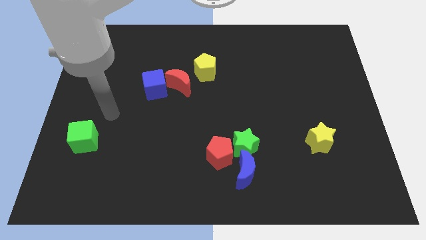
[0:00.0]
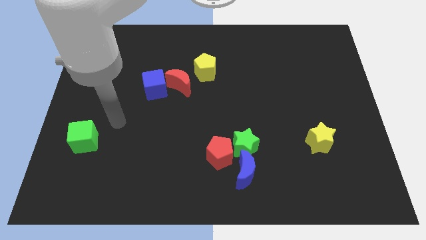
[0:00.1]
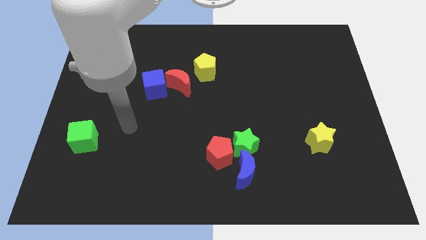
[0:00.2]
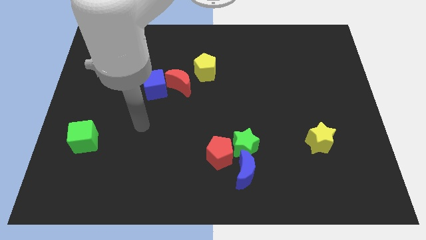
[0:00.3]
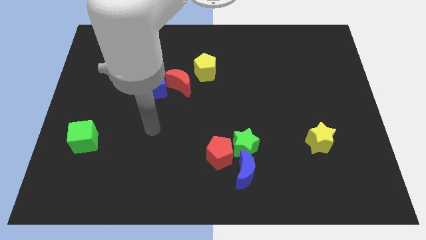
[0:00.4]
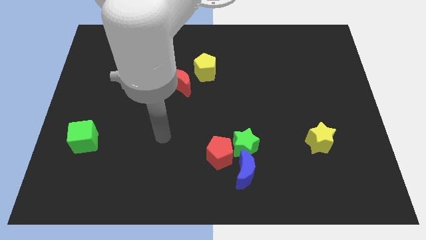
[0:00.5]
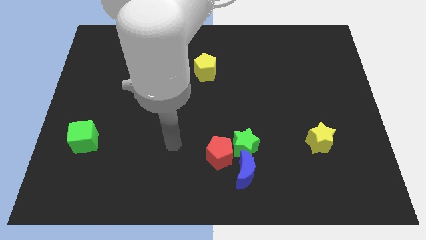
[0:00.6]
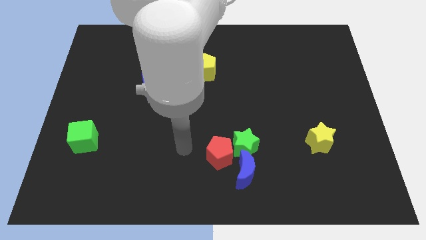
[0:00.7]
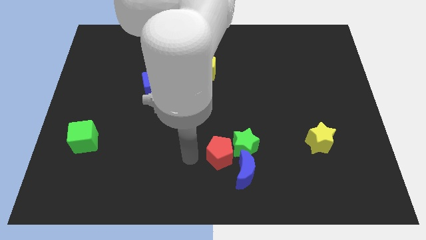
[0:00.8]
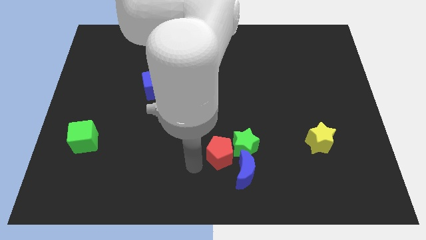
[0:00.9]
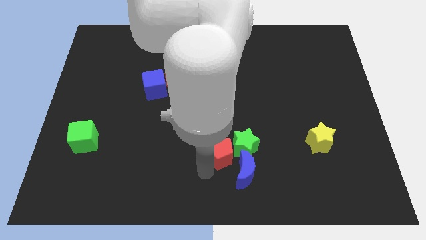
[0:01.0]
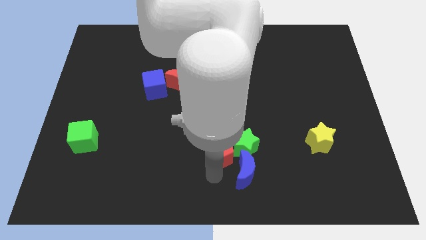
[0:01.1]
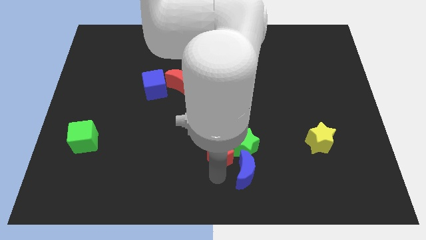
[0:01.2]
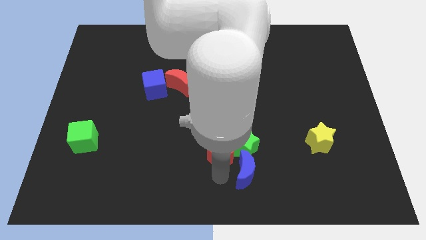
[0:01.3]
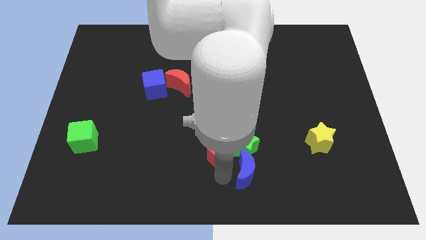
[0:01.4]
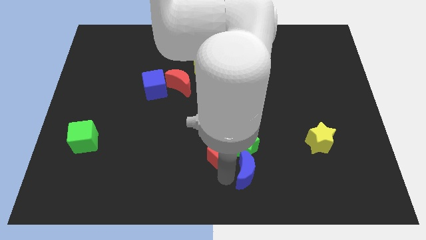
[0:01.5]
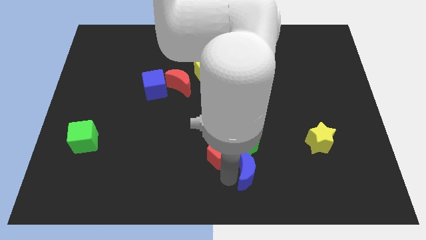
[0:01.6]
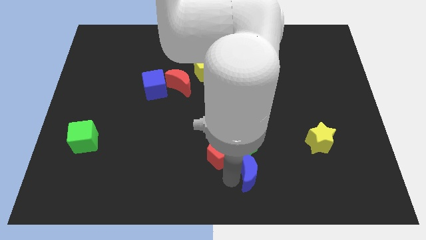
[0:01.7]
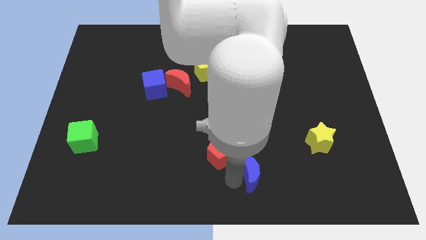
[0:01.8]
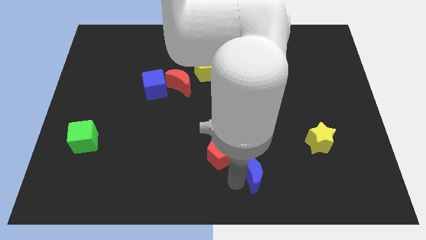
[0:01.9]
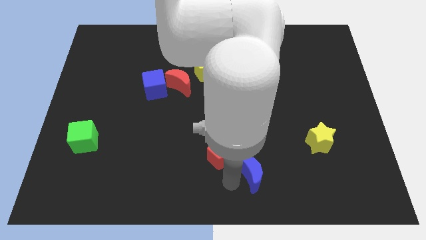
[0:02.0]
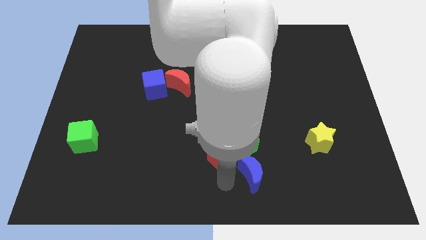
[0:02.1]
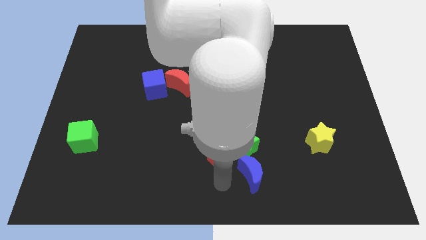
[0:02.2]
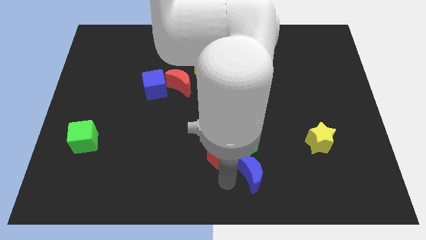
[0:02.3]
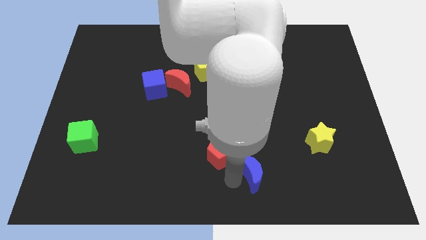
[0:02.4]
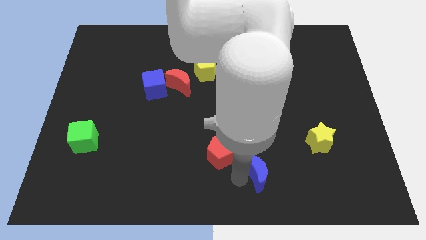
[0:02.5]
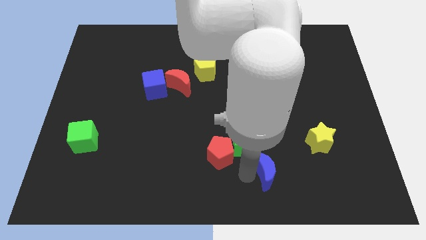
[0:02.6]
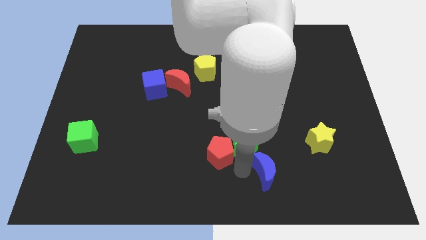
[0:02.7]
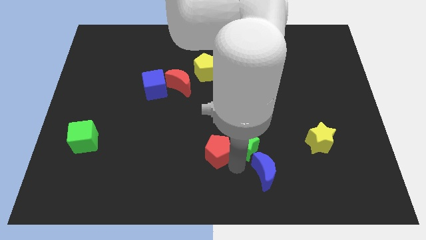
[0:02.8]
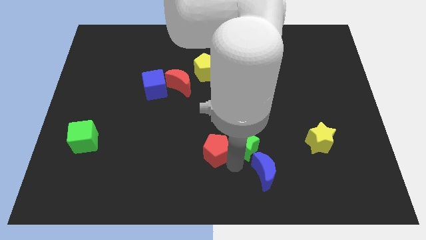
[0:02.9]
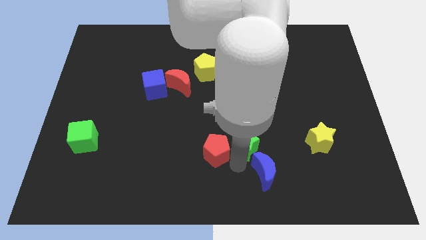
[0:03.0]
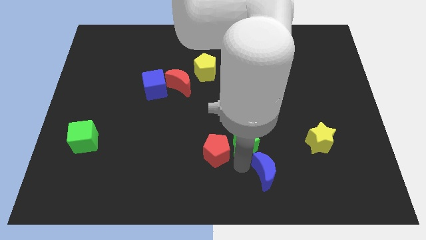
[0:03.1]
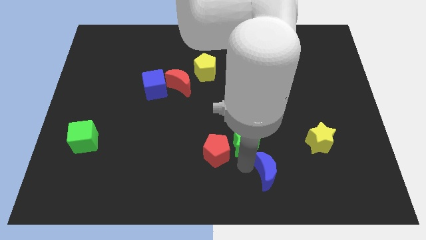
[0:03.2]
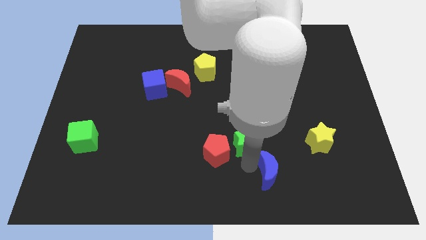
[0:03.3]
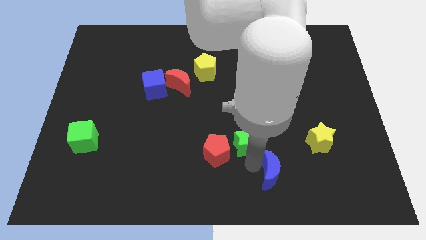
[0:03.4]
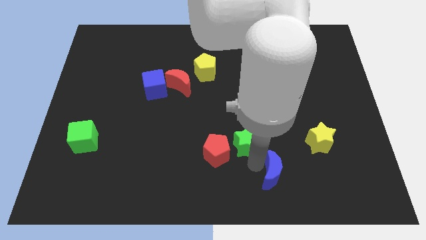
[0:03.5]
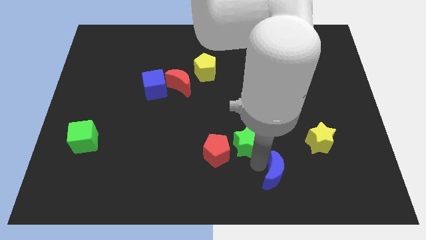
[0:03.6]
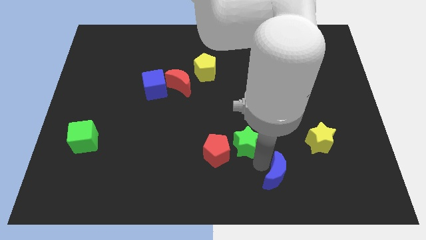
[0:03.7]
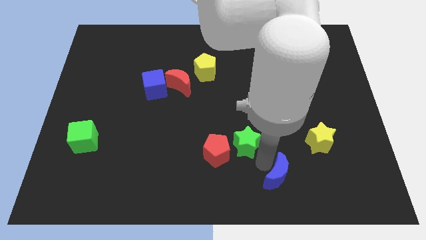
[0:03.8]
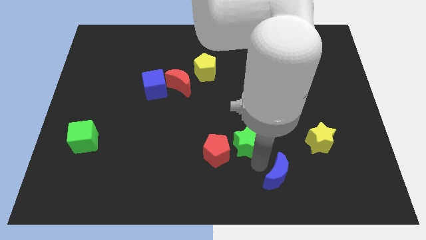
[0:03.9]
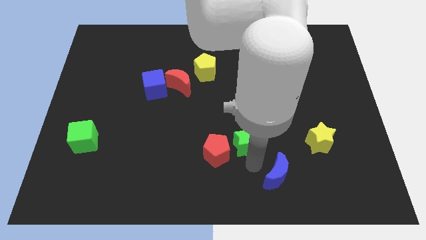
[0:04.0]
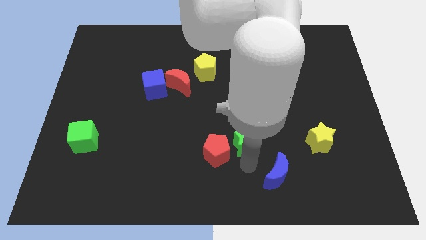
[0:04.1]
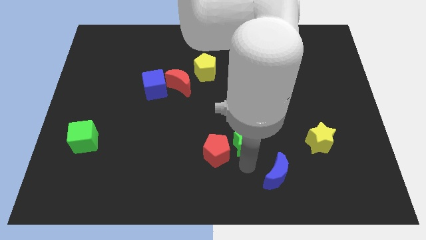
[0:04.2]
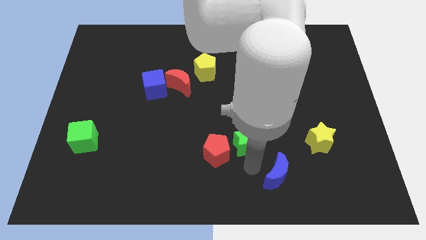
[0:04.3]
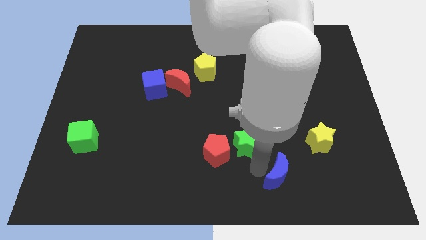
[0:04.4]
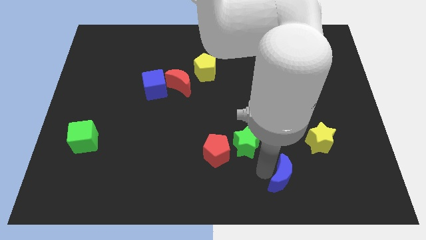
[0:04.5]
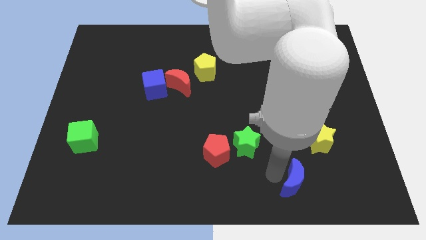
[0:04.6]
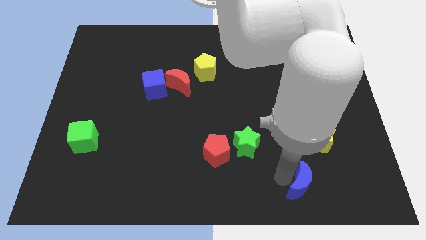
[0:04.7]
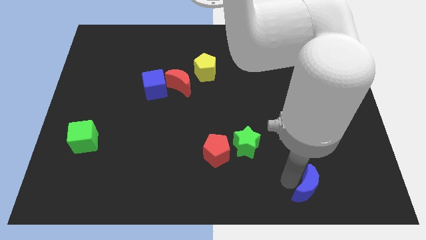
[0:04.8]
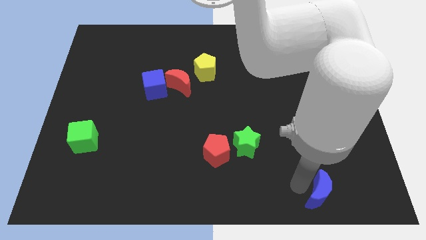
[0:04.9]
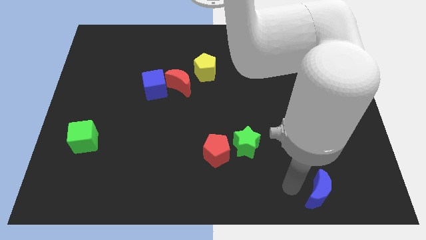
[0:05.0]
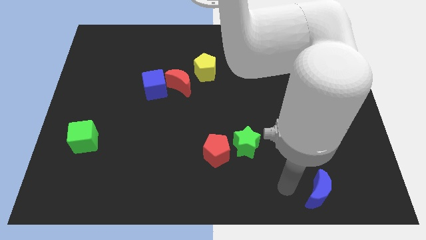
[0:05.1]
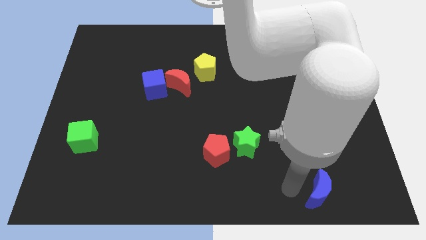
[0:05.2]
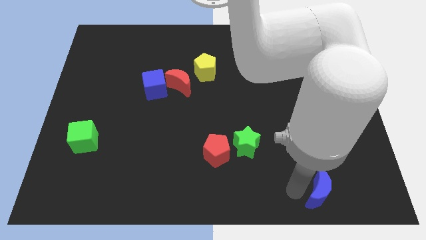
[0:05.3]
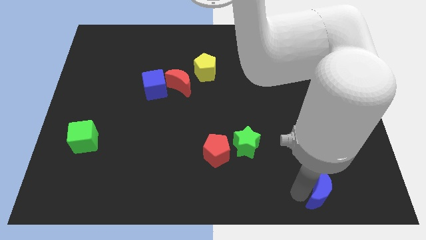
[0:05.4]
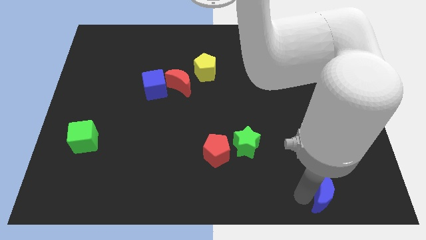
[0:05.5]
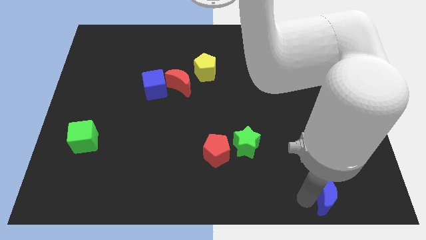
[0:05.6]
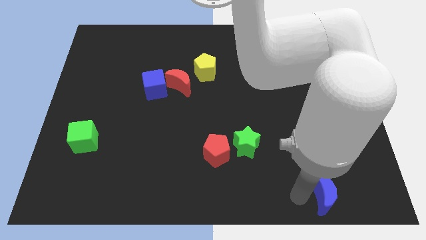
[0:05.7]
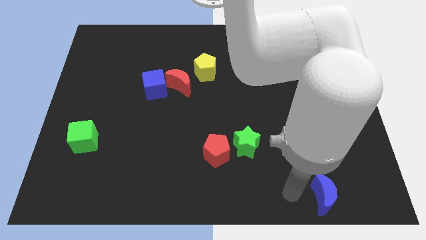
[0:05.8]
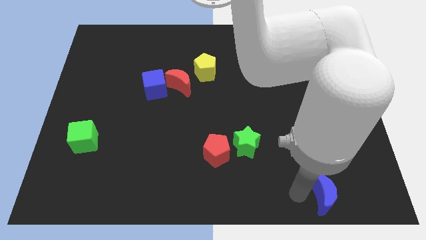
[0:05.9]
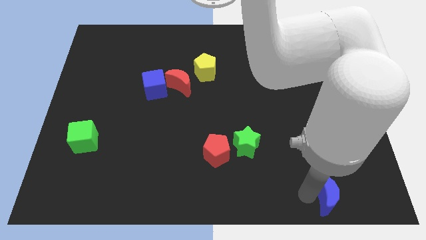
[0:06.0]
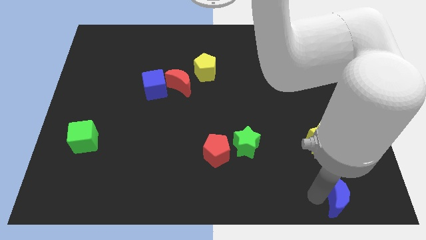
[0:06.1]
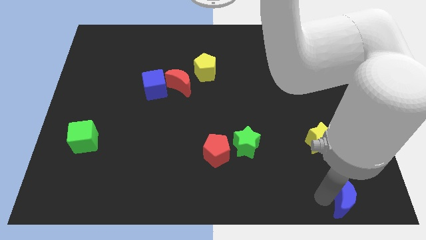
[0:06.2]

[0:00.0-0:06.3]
put the blue moon to the bottom right corner
